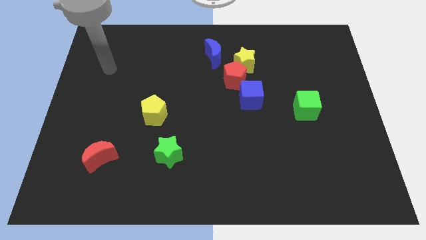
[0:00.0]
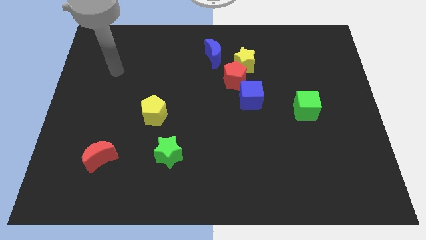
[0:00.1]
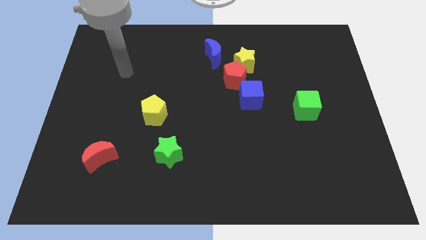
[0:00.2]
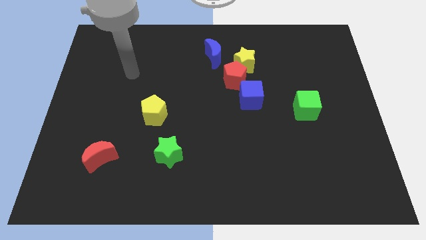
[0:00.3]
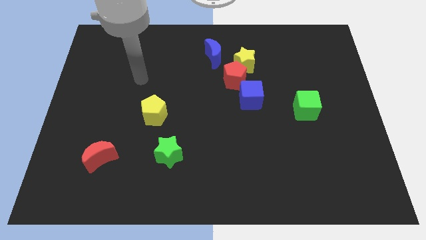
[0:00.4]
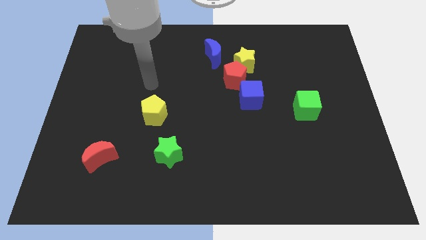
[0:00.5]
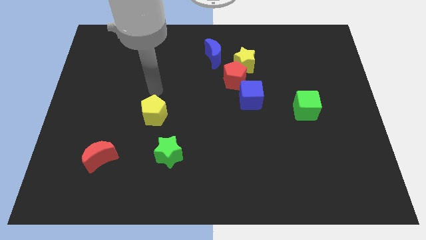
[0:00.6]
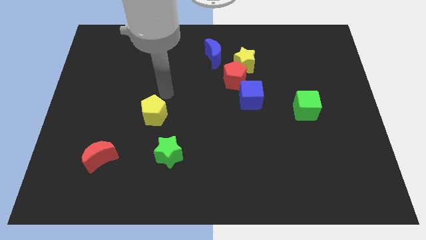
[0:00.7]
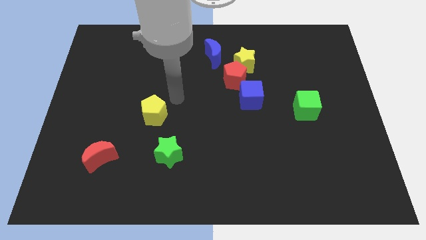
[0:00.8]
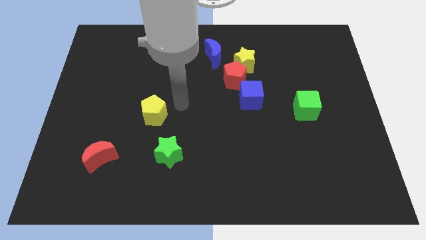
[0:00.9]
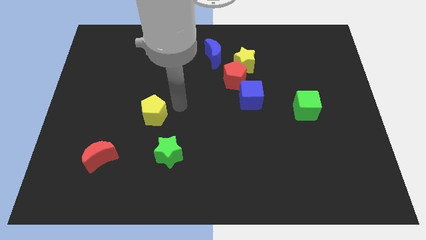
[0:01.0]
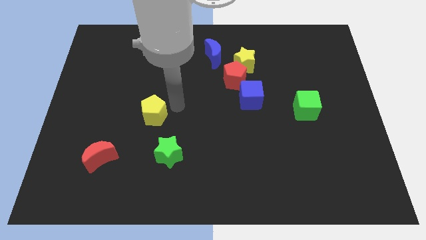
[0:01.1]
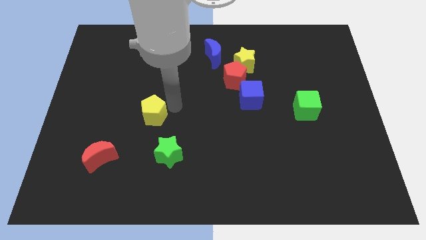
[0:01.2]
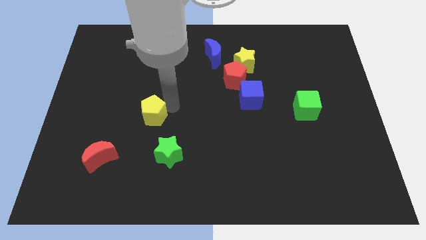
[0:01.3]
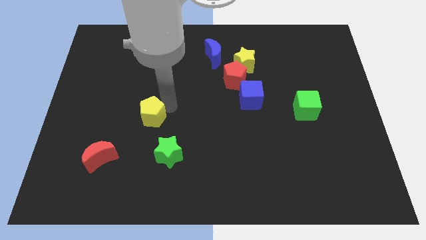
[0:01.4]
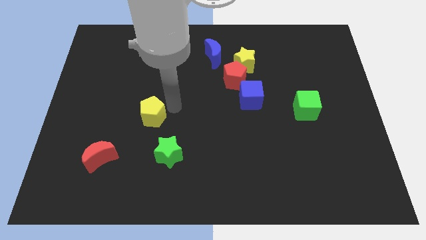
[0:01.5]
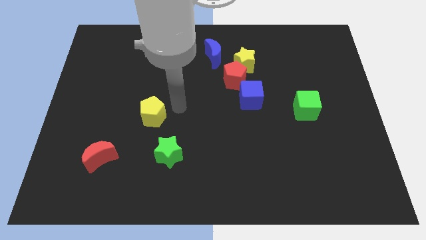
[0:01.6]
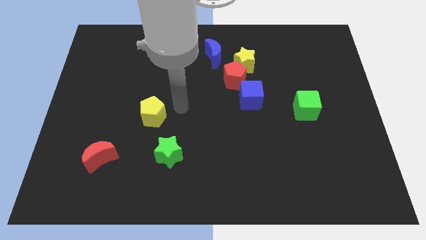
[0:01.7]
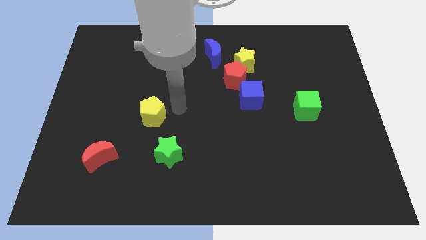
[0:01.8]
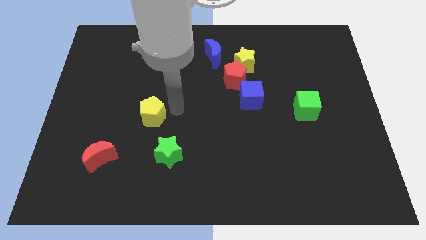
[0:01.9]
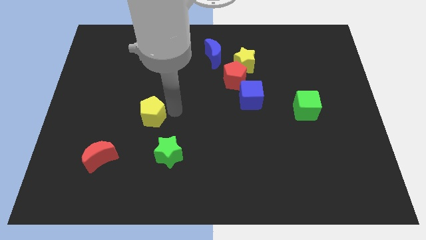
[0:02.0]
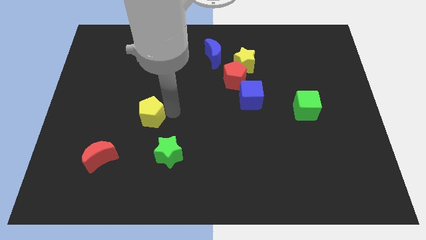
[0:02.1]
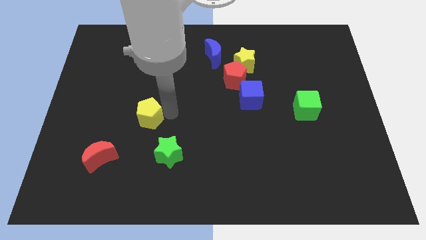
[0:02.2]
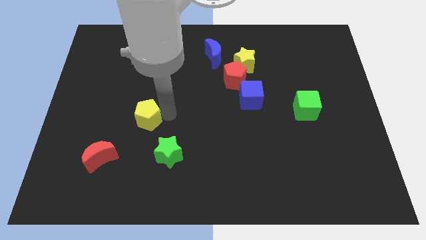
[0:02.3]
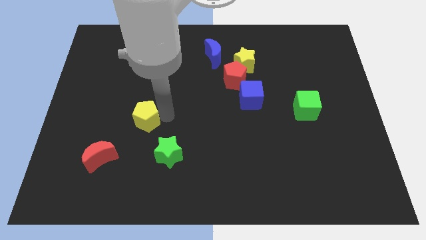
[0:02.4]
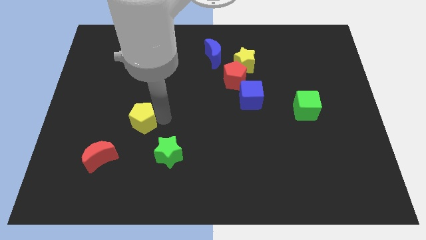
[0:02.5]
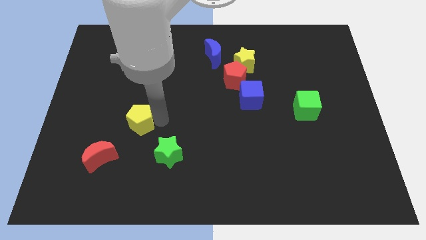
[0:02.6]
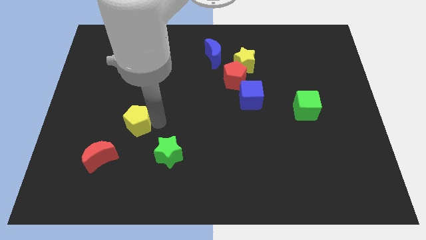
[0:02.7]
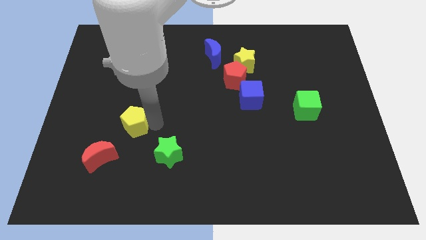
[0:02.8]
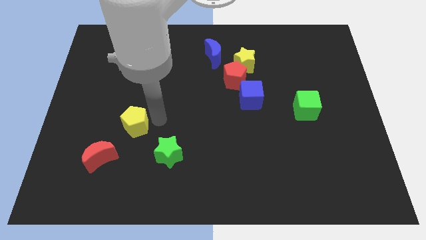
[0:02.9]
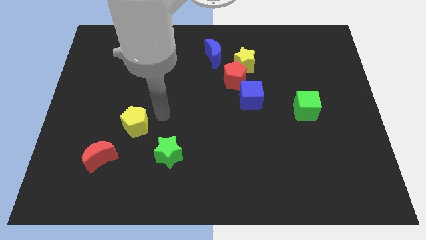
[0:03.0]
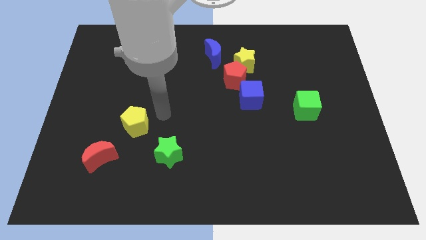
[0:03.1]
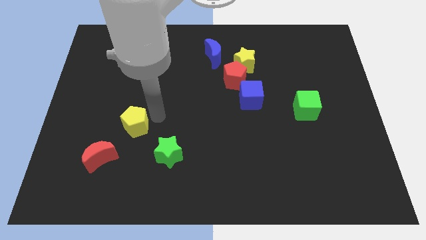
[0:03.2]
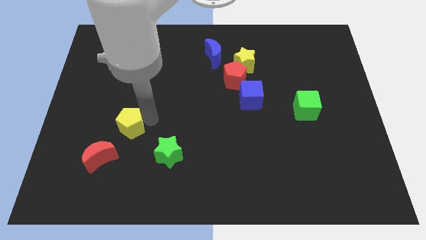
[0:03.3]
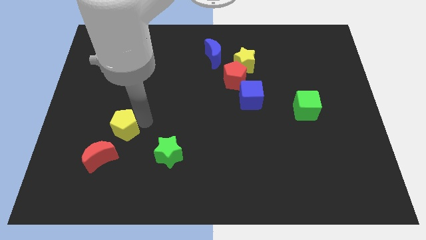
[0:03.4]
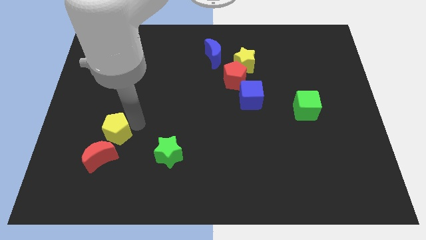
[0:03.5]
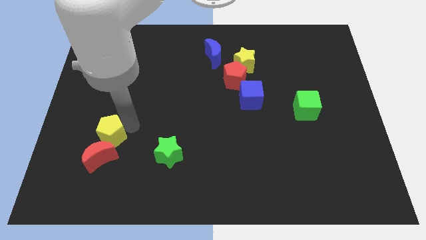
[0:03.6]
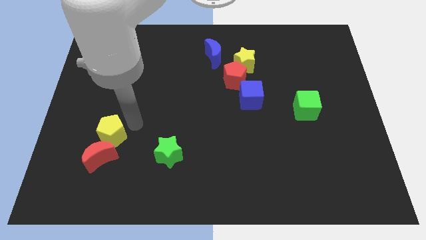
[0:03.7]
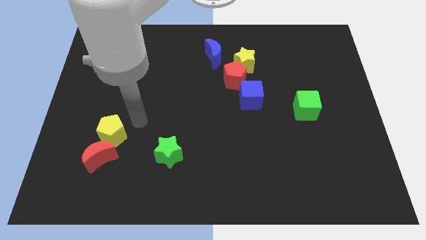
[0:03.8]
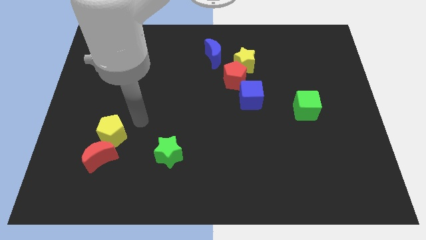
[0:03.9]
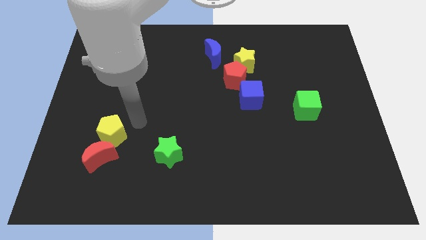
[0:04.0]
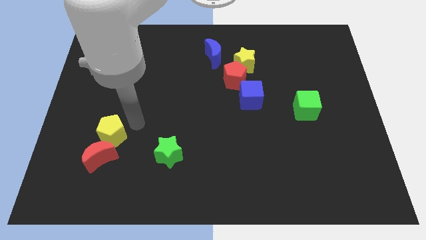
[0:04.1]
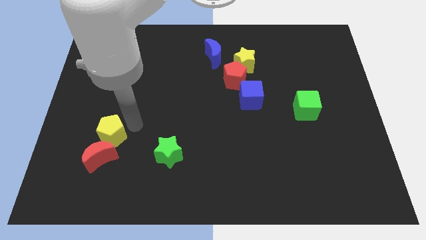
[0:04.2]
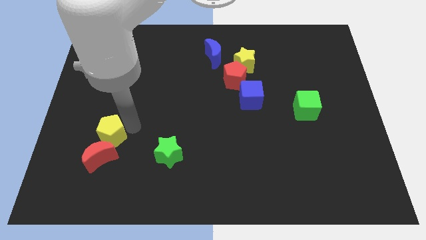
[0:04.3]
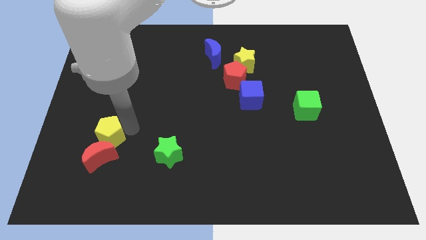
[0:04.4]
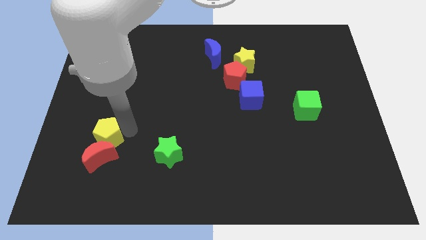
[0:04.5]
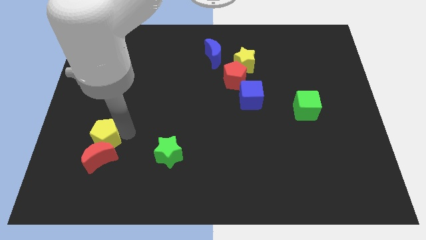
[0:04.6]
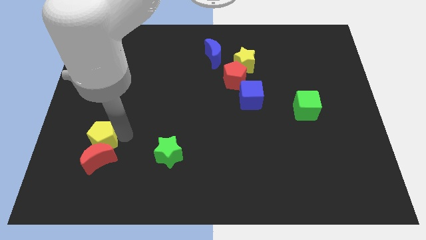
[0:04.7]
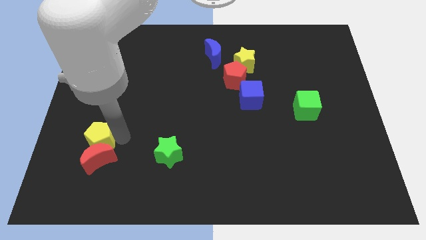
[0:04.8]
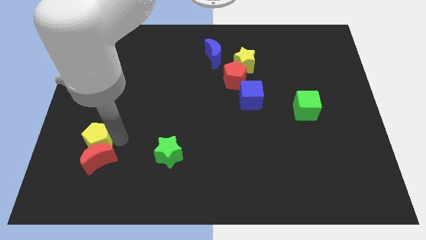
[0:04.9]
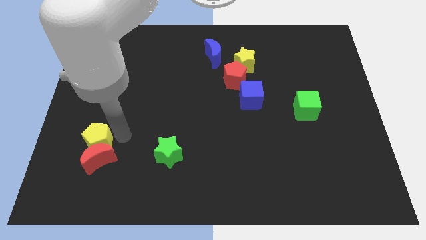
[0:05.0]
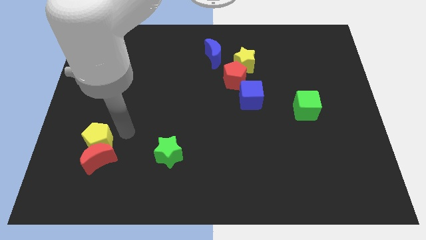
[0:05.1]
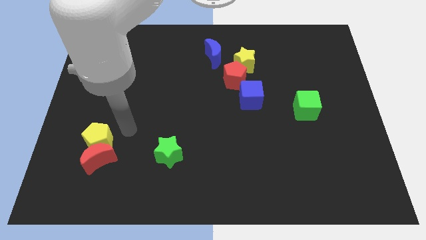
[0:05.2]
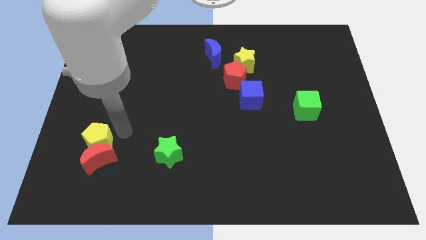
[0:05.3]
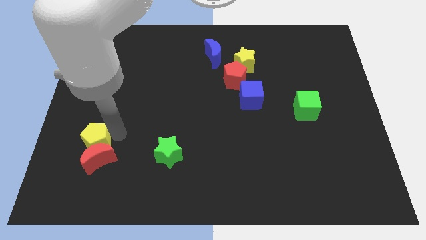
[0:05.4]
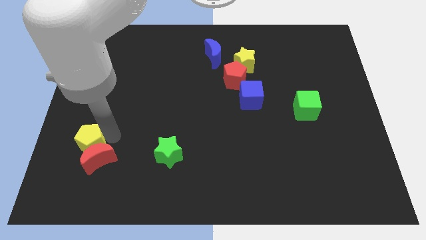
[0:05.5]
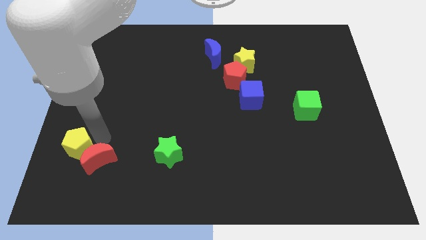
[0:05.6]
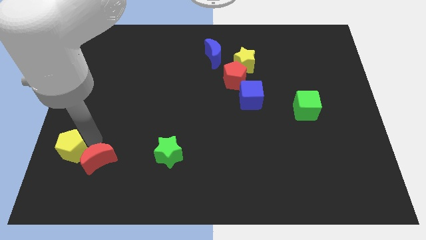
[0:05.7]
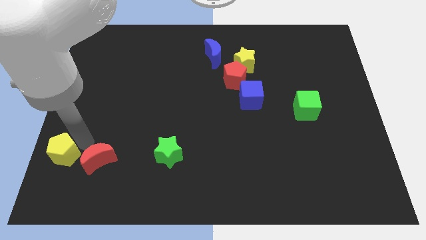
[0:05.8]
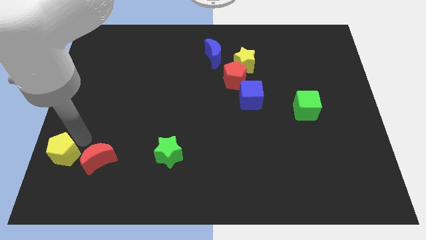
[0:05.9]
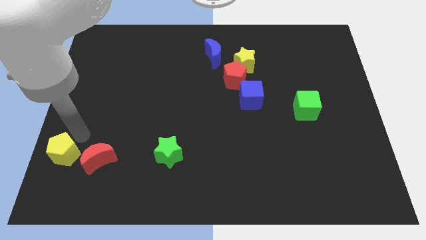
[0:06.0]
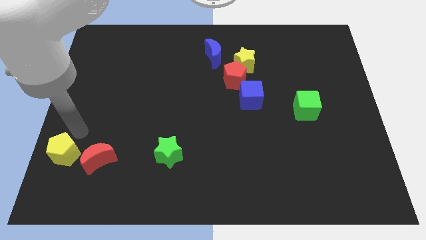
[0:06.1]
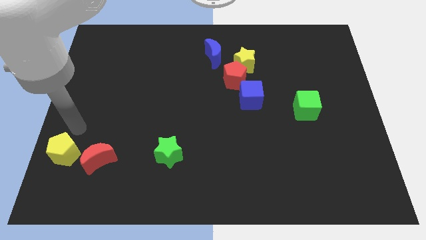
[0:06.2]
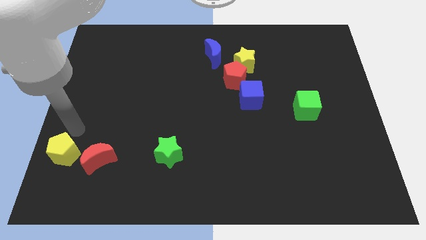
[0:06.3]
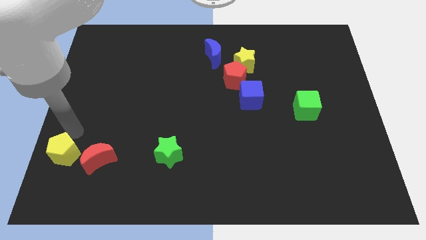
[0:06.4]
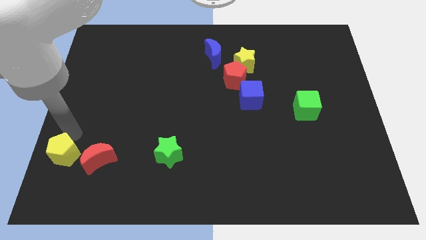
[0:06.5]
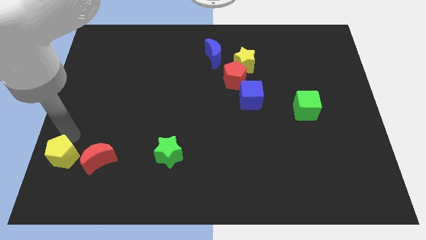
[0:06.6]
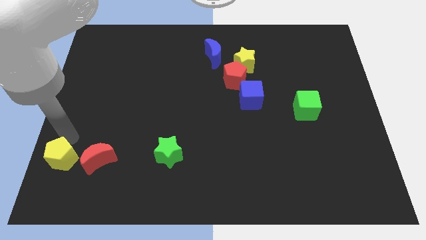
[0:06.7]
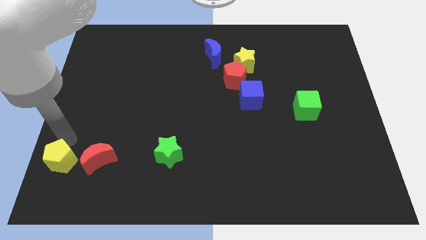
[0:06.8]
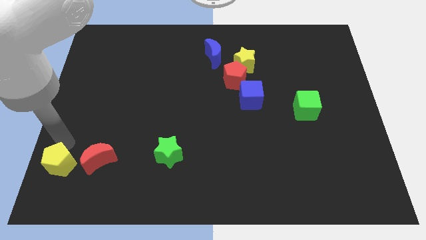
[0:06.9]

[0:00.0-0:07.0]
put the yellow pentagon to the bottom left corner

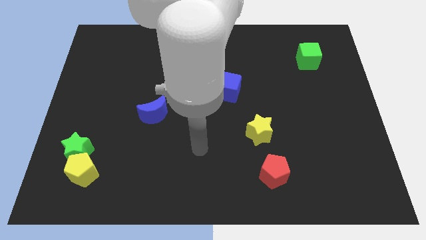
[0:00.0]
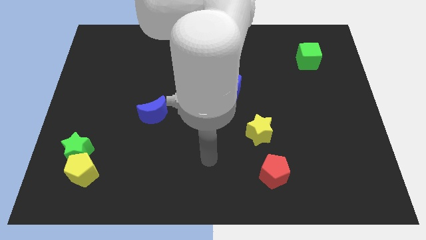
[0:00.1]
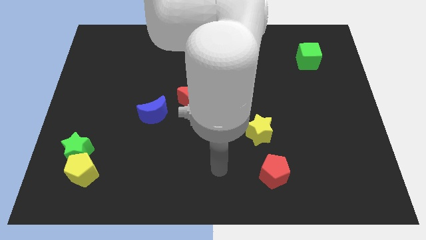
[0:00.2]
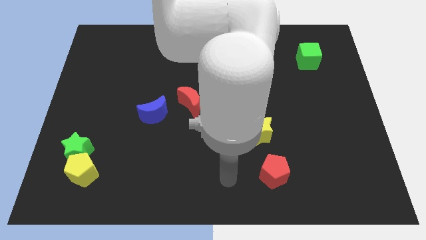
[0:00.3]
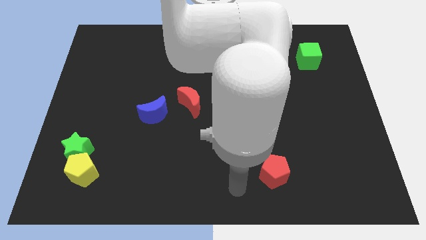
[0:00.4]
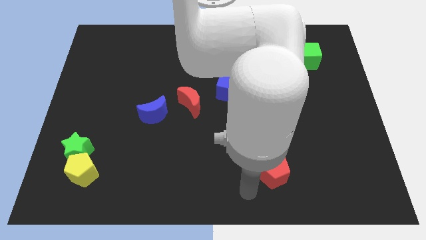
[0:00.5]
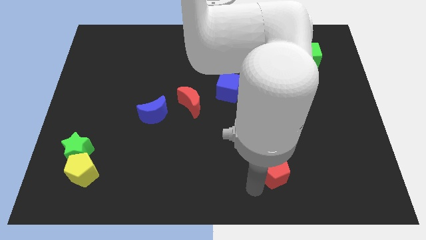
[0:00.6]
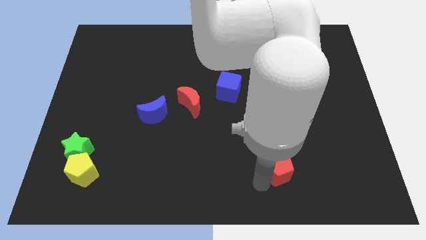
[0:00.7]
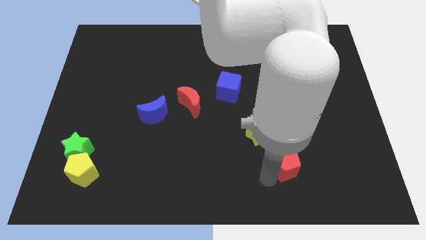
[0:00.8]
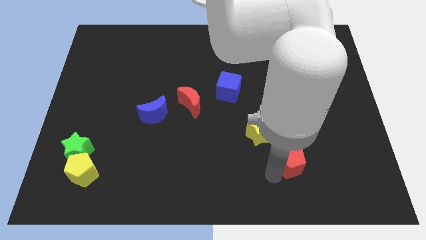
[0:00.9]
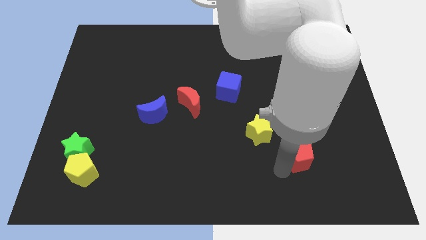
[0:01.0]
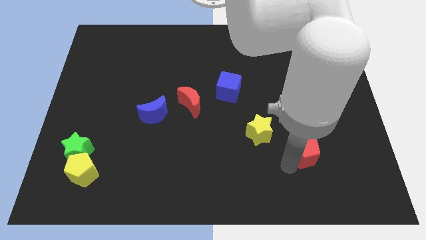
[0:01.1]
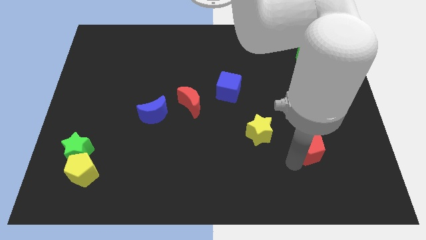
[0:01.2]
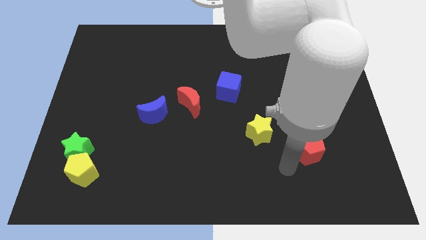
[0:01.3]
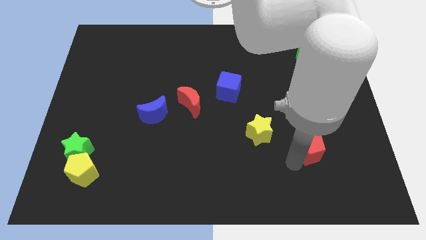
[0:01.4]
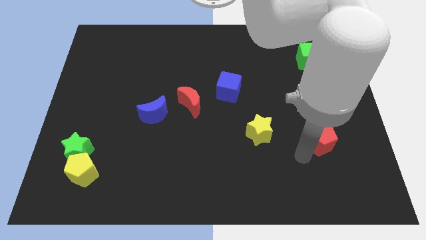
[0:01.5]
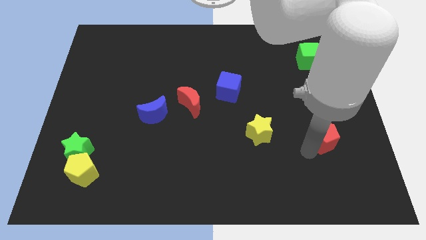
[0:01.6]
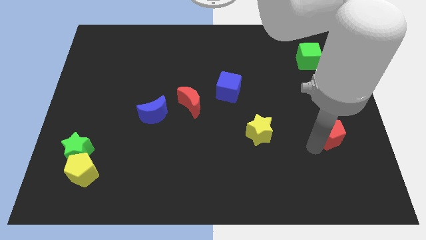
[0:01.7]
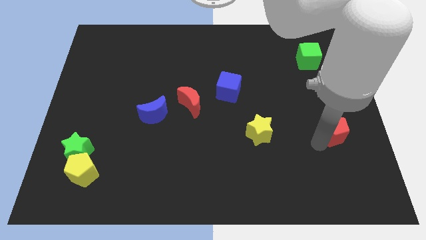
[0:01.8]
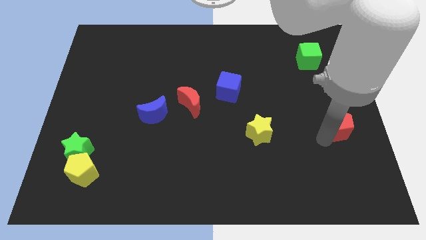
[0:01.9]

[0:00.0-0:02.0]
put the red pentagon to the center right
